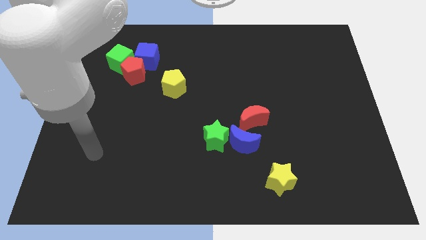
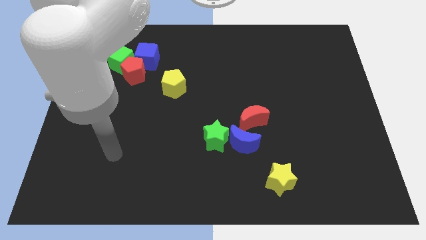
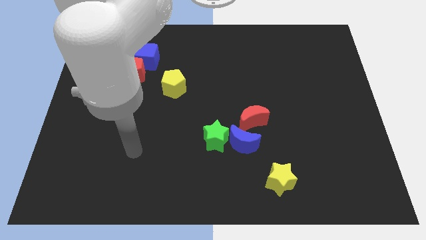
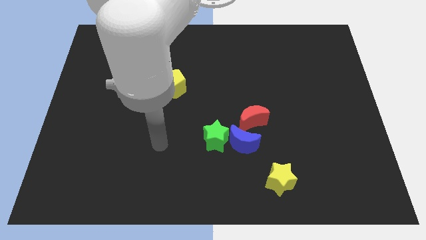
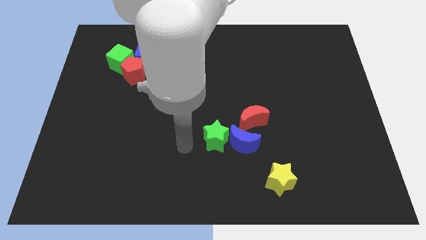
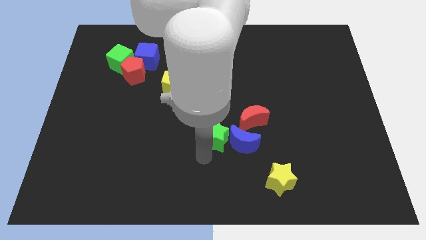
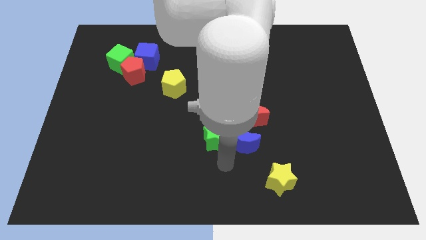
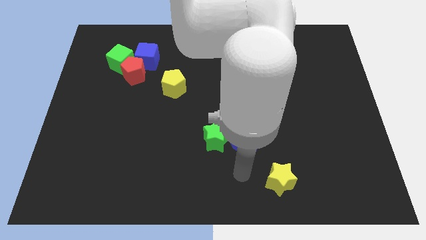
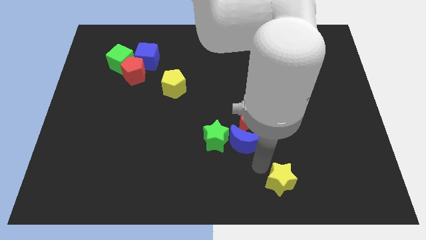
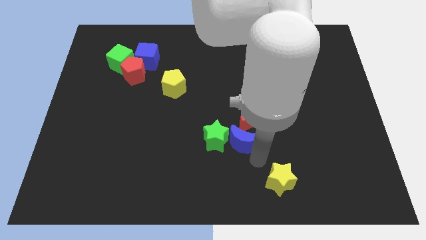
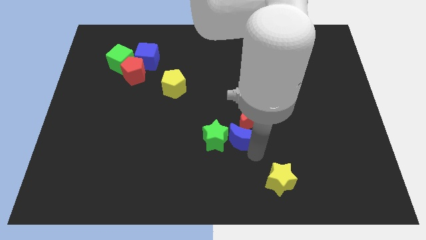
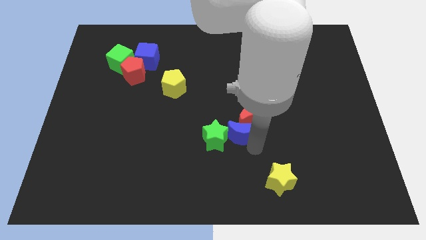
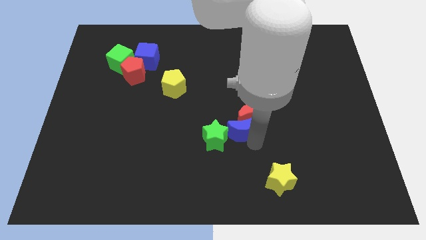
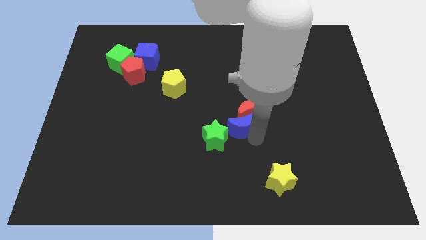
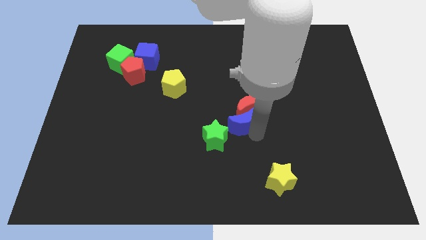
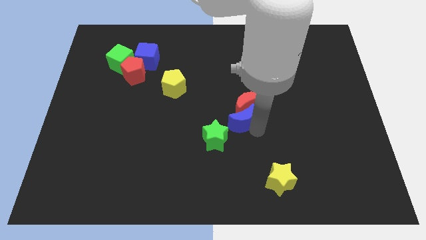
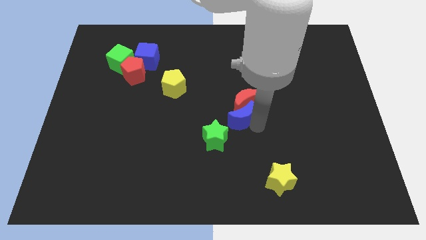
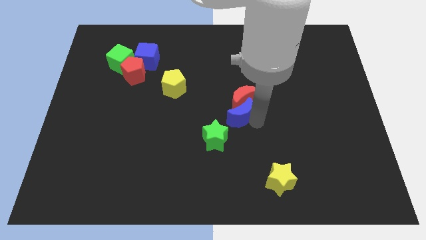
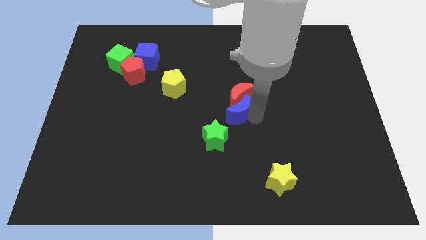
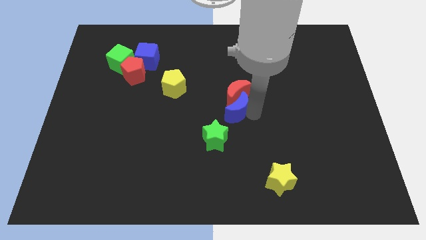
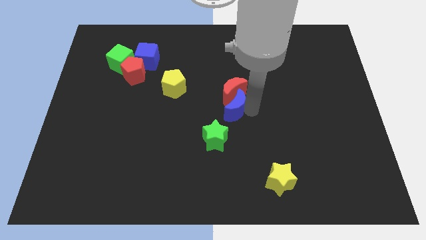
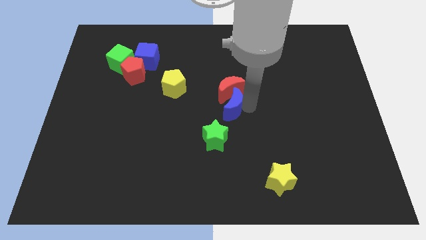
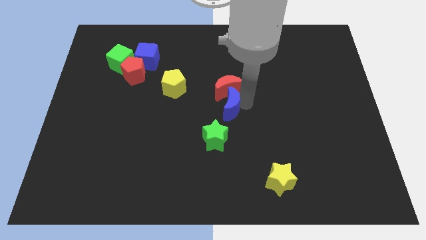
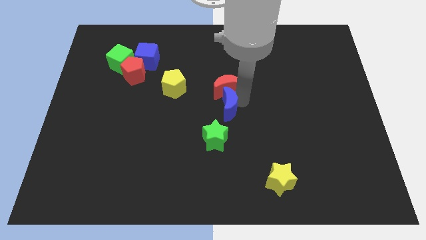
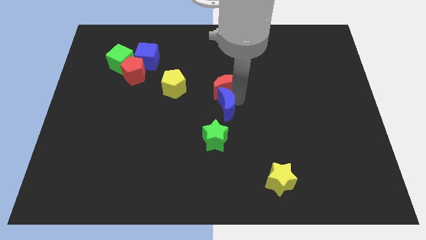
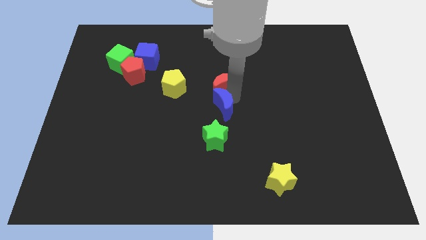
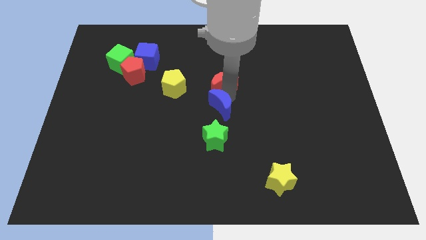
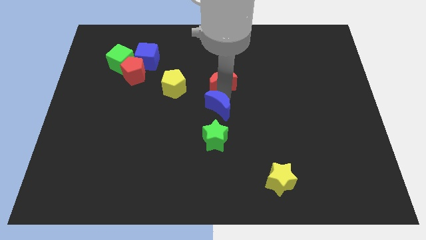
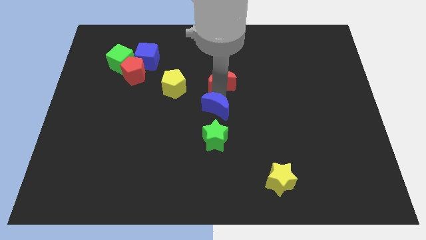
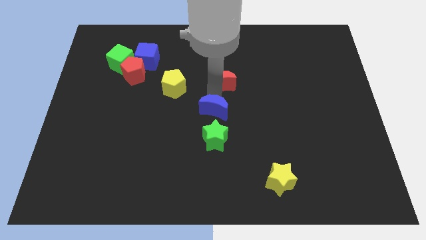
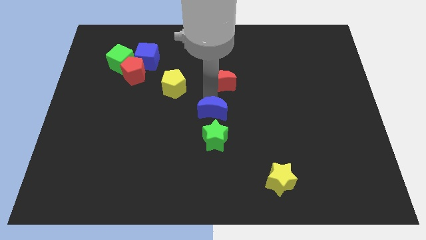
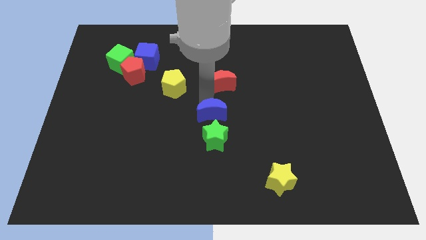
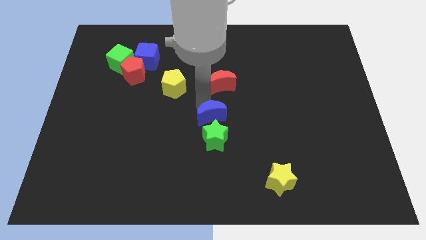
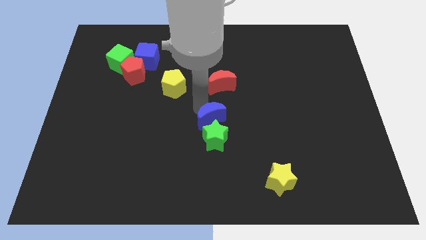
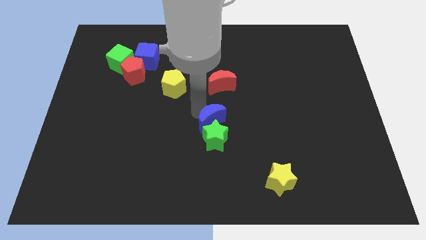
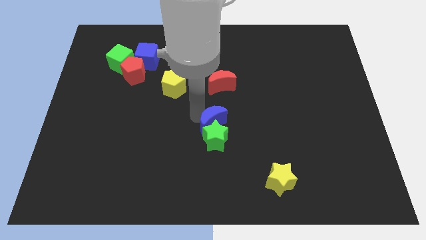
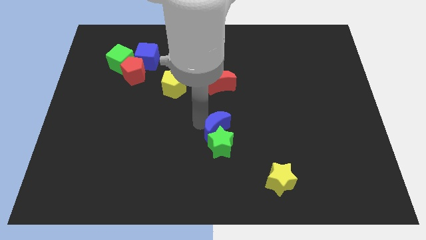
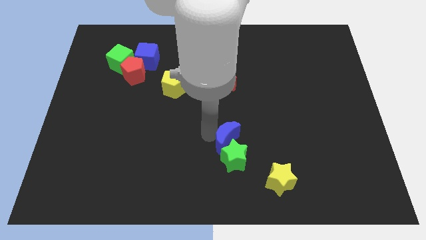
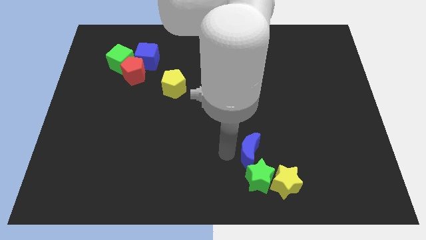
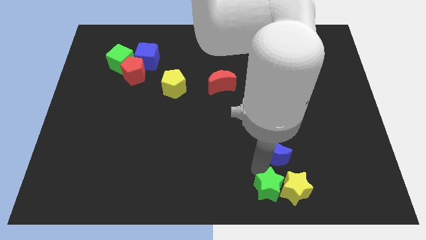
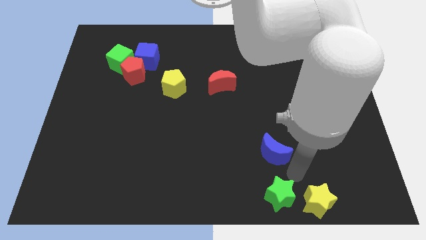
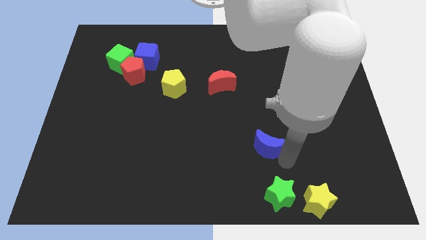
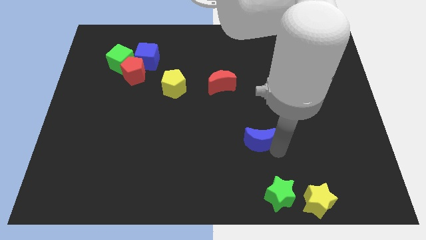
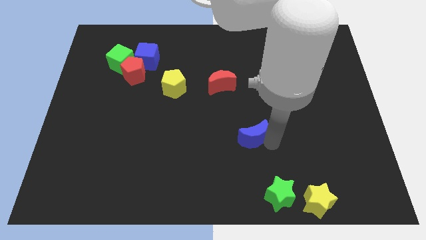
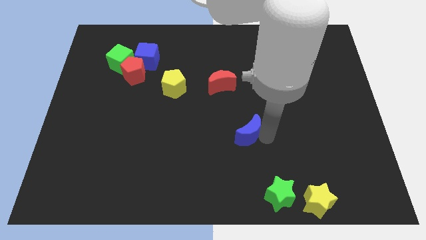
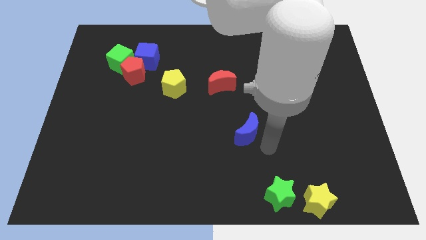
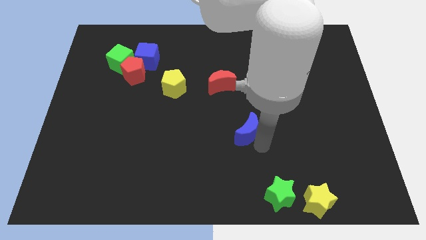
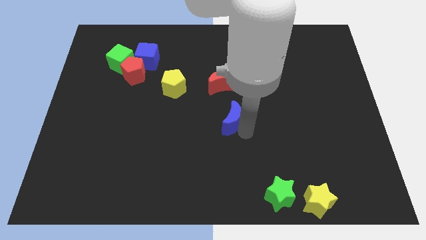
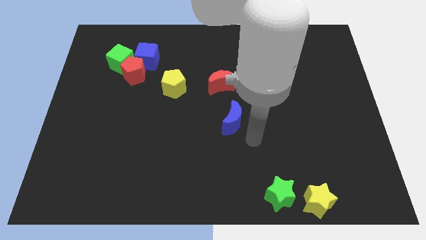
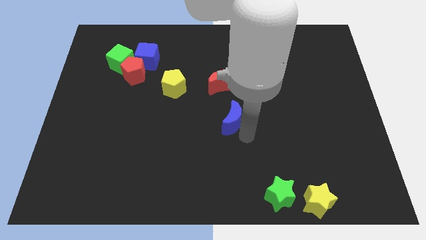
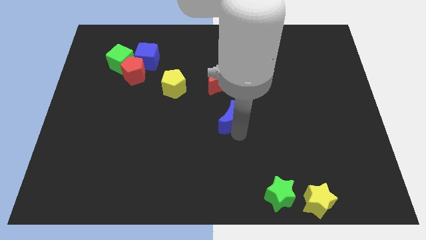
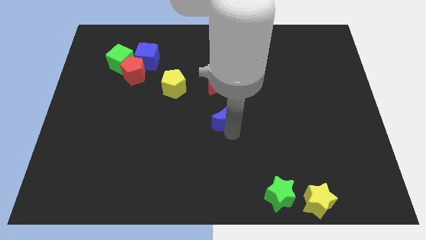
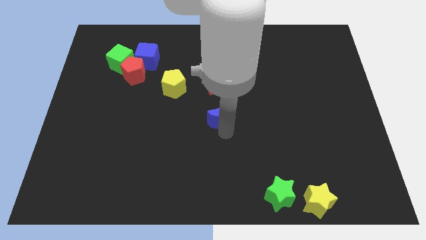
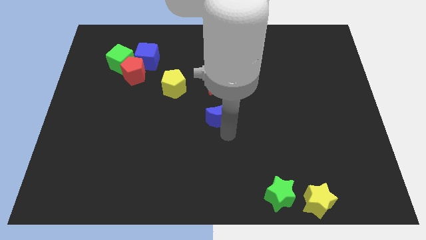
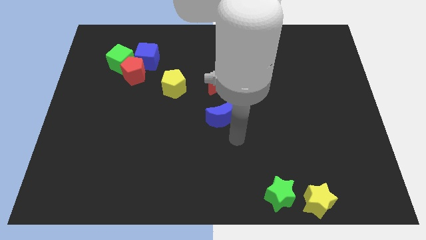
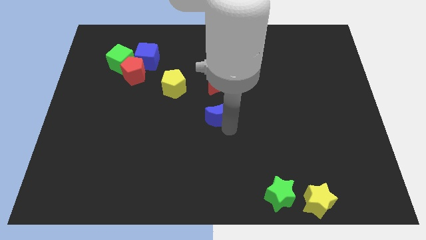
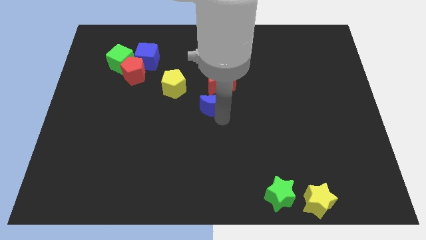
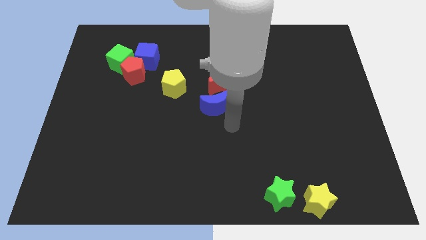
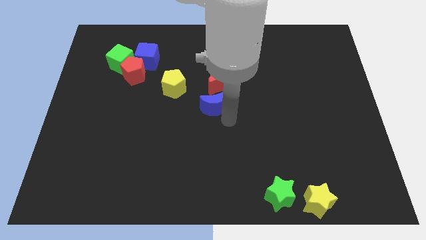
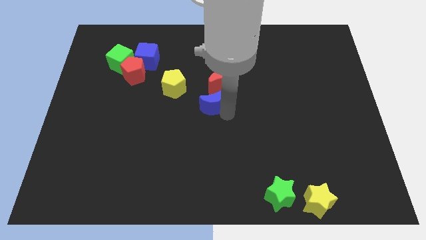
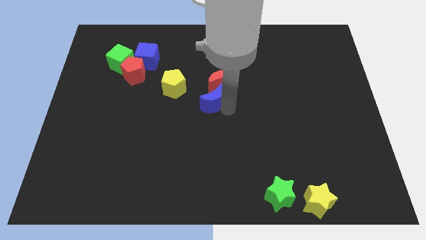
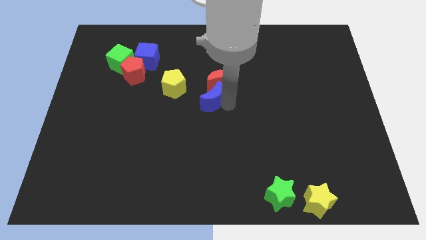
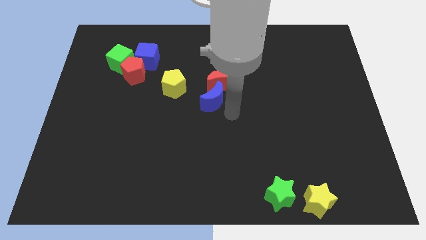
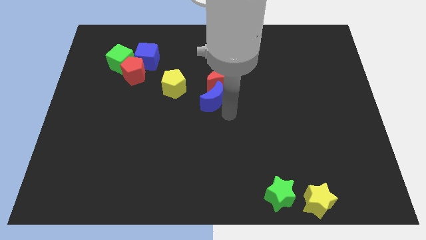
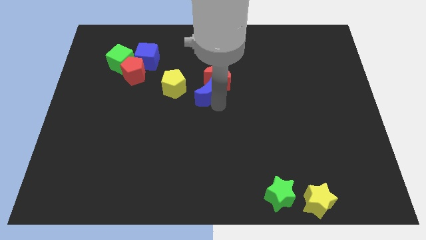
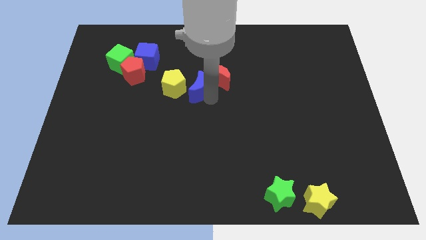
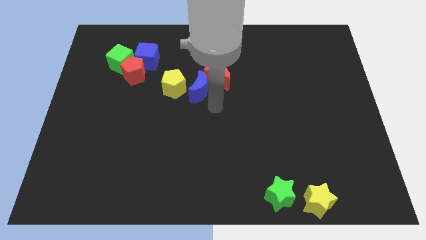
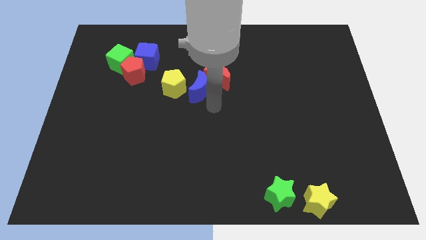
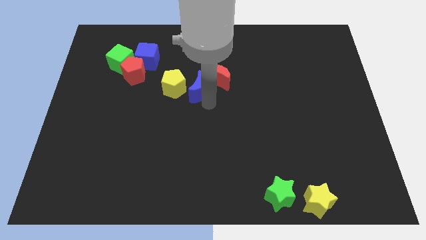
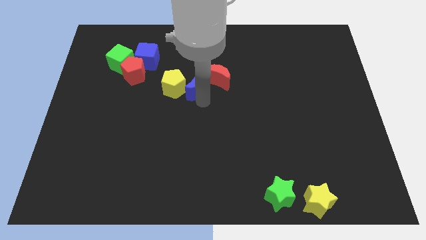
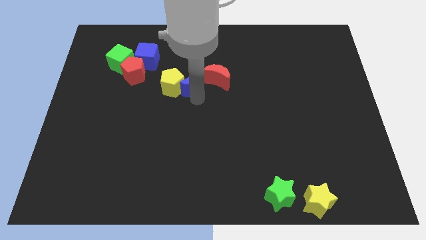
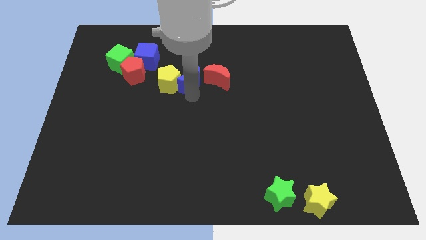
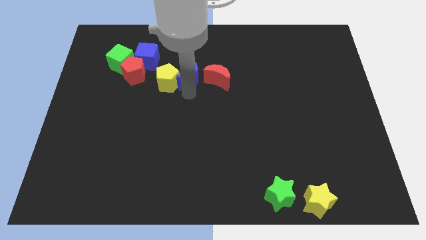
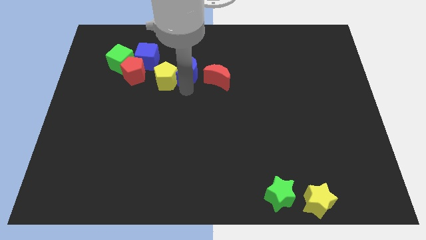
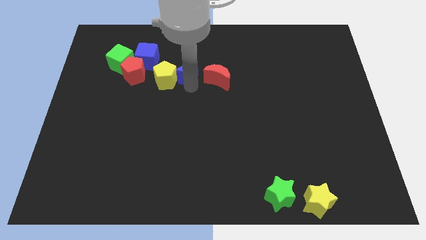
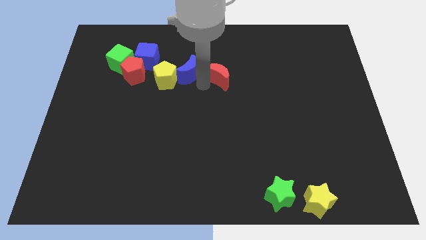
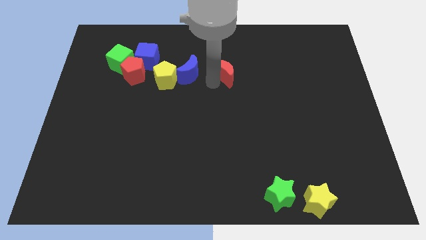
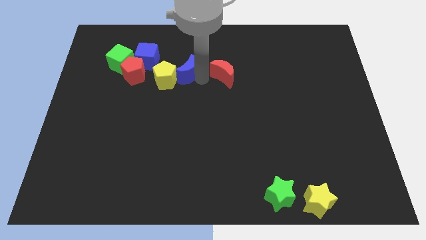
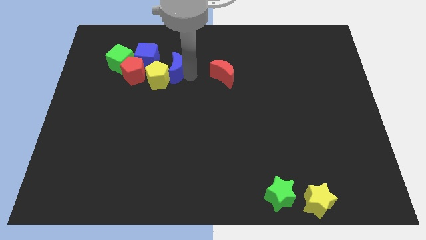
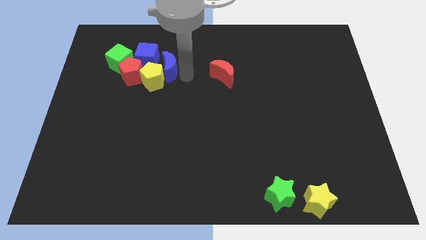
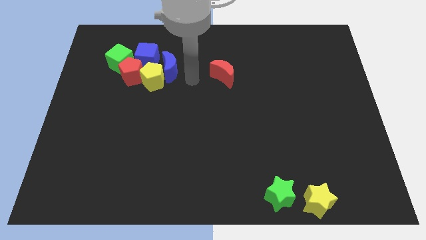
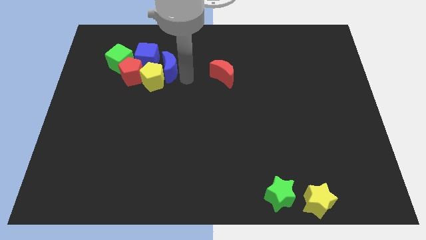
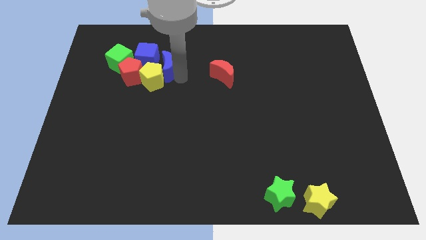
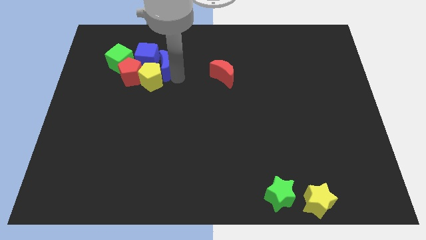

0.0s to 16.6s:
slide the blue moon close to the blue cube
